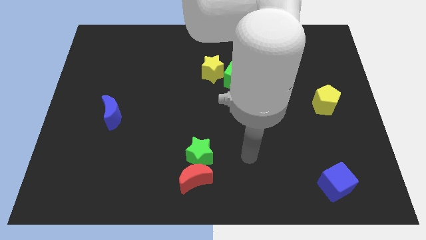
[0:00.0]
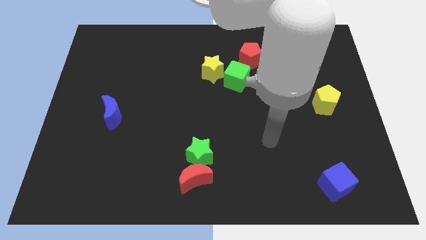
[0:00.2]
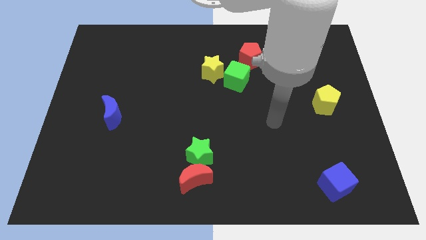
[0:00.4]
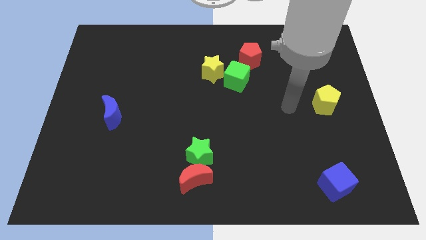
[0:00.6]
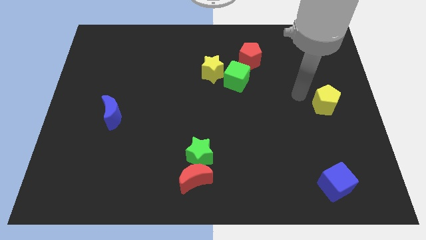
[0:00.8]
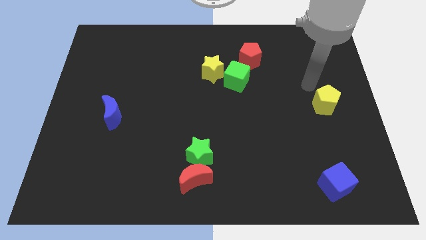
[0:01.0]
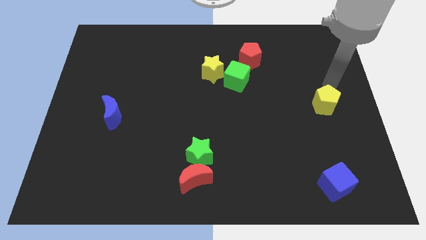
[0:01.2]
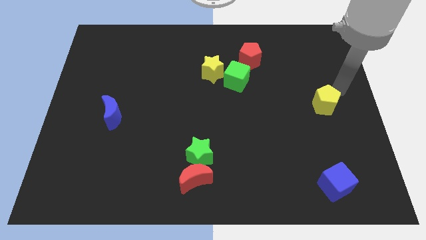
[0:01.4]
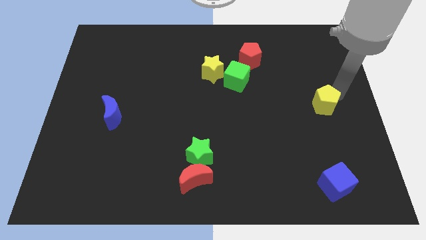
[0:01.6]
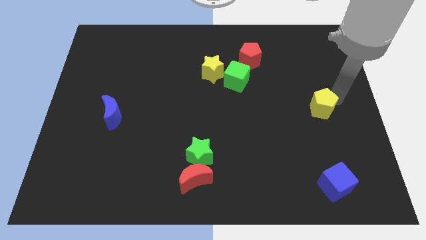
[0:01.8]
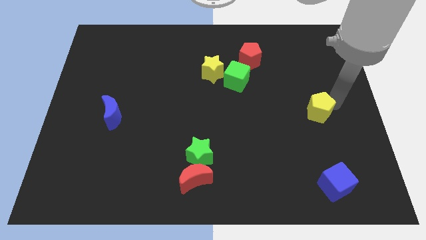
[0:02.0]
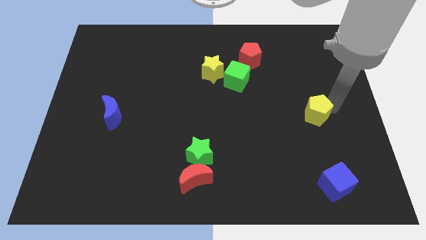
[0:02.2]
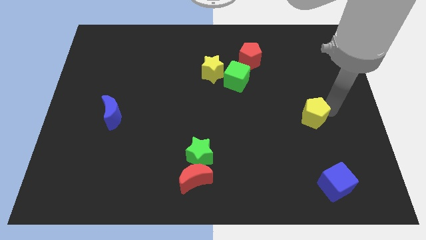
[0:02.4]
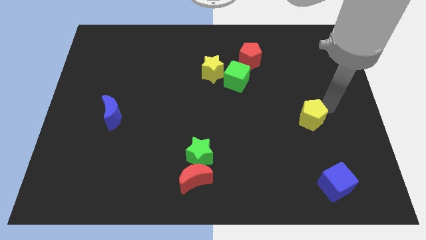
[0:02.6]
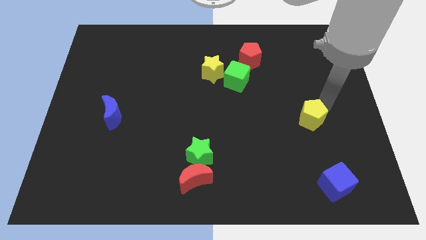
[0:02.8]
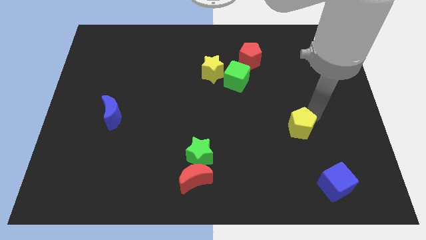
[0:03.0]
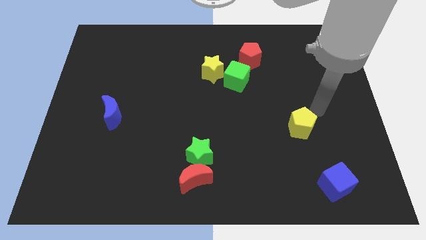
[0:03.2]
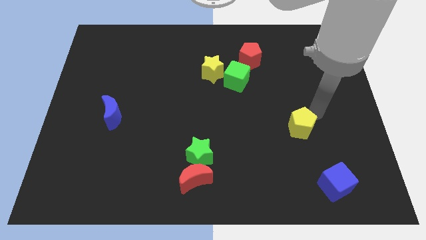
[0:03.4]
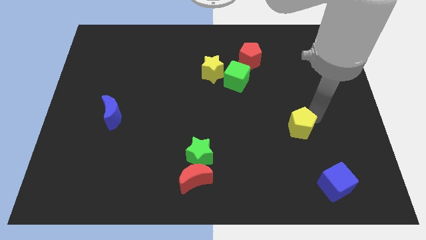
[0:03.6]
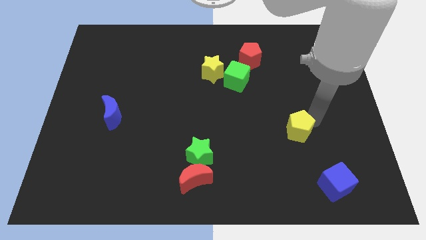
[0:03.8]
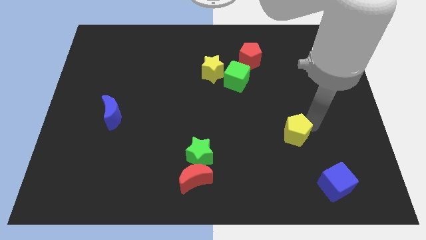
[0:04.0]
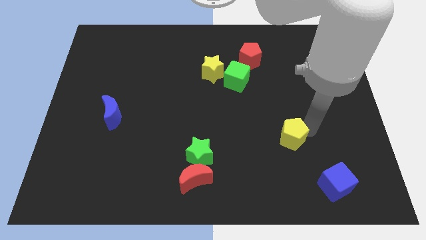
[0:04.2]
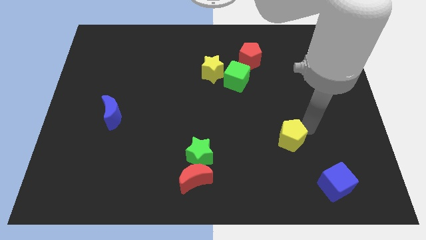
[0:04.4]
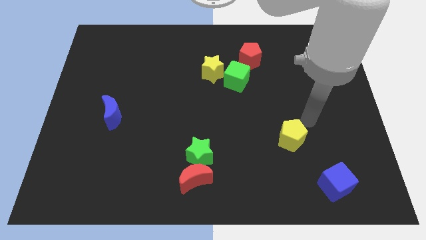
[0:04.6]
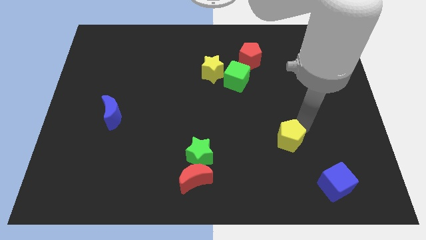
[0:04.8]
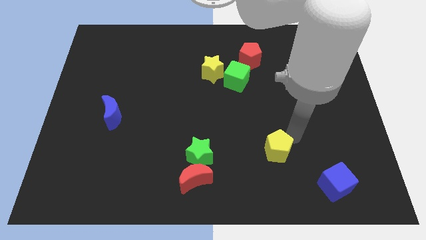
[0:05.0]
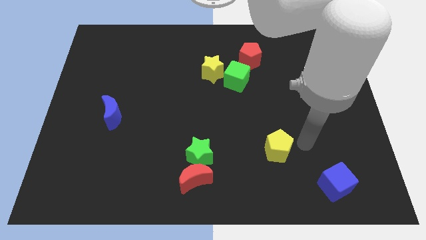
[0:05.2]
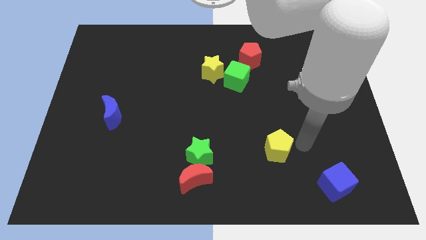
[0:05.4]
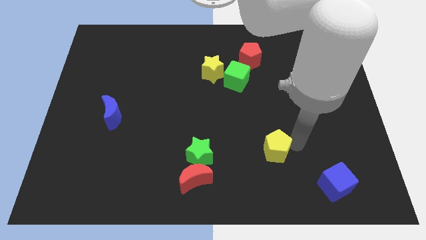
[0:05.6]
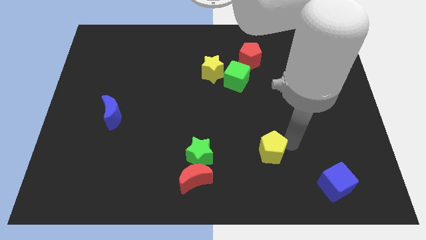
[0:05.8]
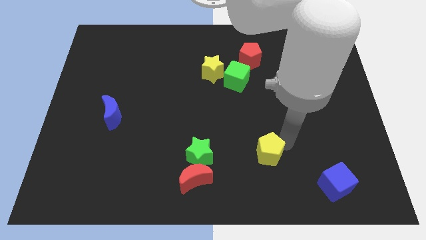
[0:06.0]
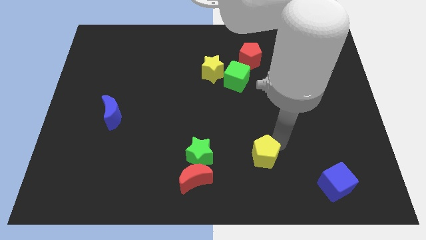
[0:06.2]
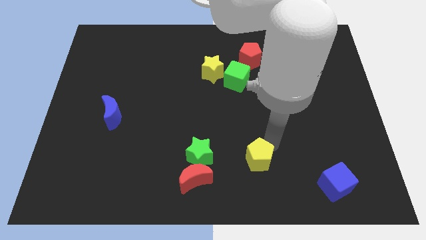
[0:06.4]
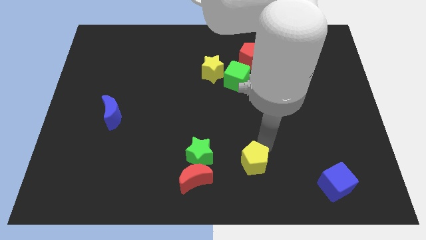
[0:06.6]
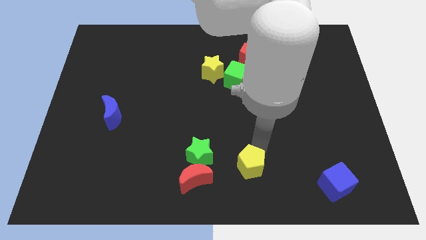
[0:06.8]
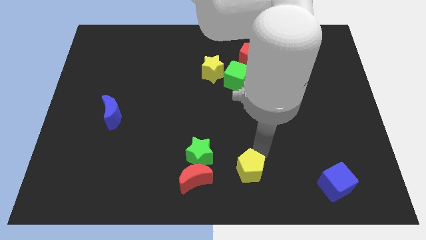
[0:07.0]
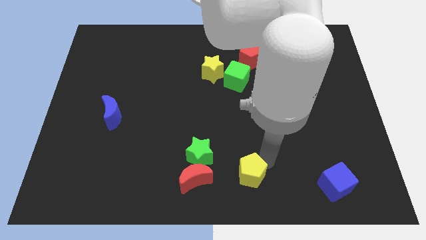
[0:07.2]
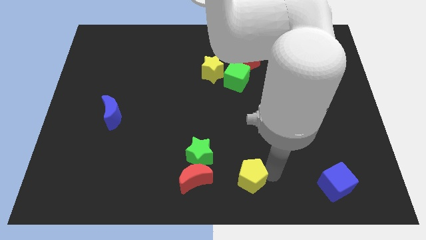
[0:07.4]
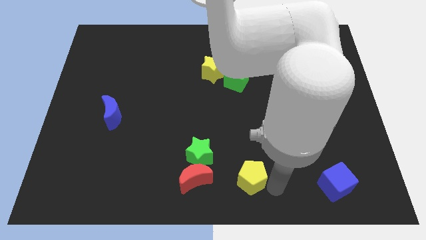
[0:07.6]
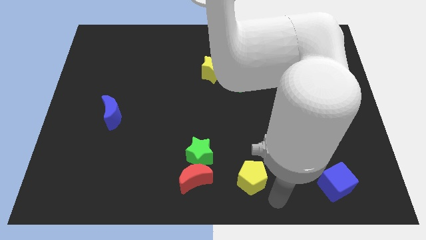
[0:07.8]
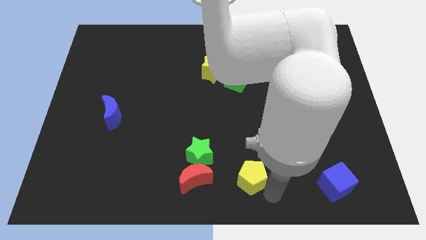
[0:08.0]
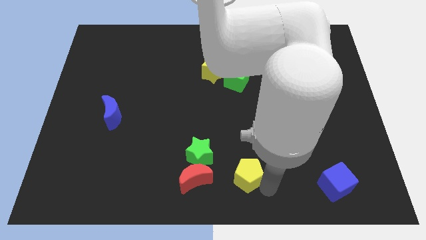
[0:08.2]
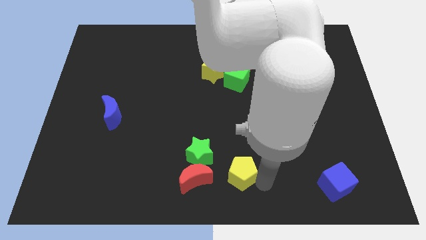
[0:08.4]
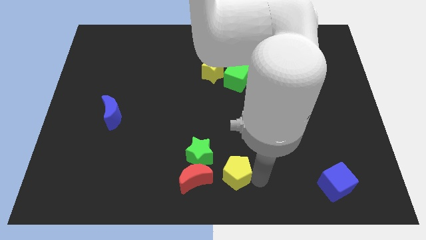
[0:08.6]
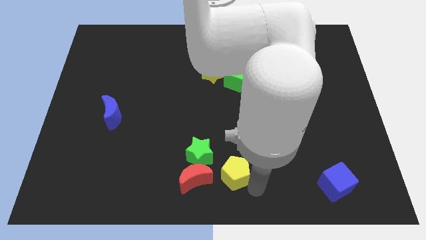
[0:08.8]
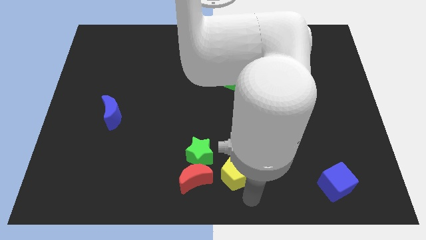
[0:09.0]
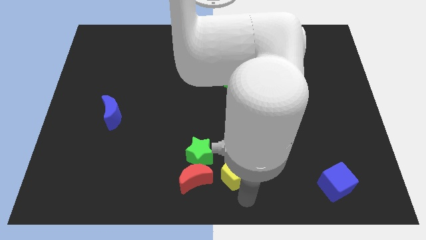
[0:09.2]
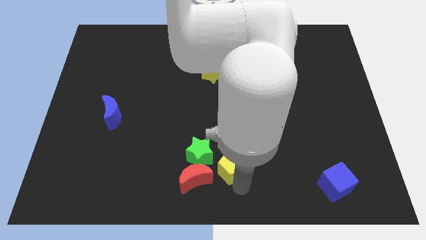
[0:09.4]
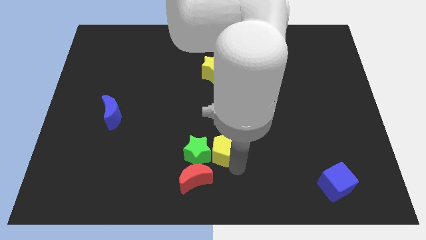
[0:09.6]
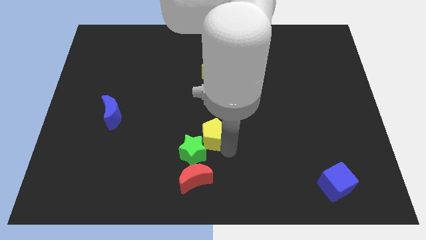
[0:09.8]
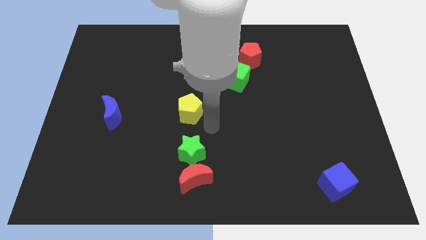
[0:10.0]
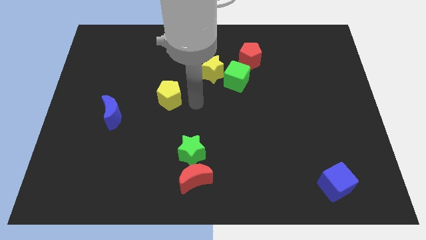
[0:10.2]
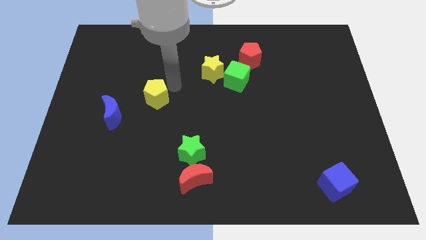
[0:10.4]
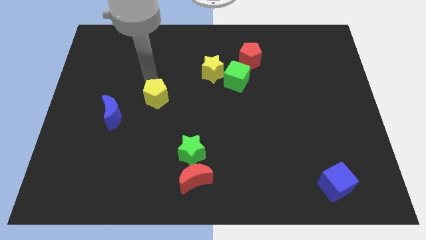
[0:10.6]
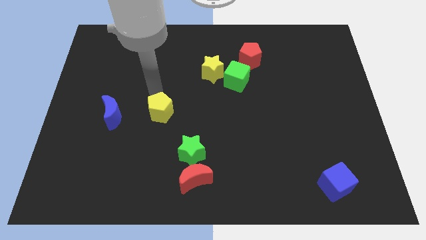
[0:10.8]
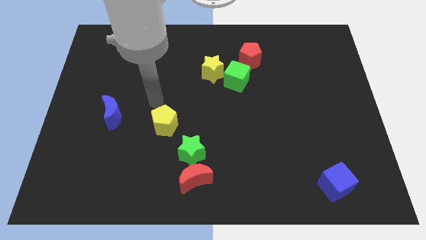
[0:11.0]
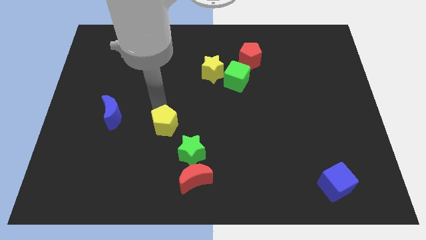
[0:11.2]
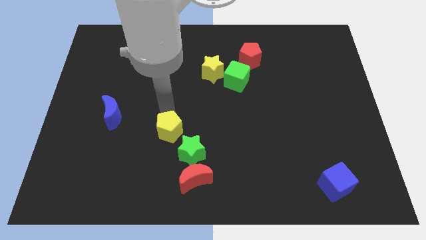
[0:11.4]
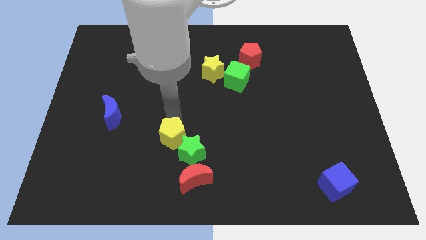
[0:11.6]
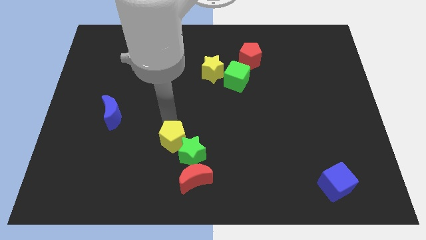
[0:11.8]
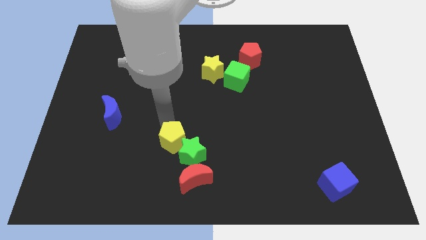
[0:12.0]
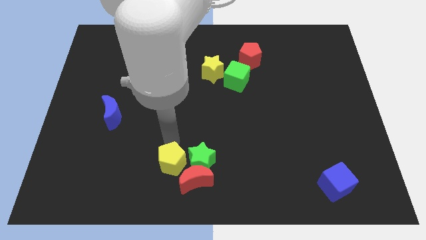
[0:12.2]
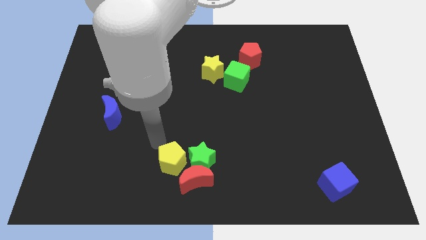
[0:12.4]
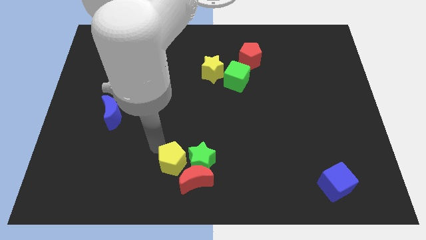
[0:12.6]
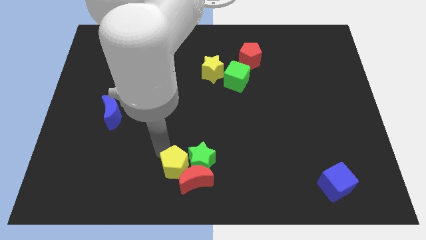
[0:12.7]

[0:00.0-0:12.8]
push the yellow pentagon to the red moon
